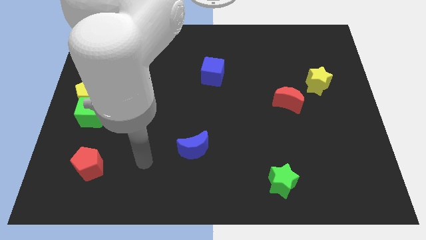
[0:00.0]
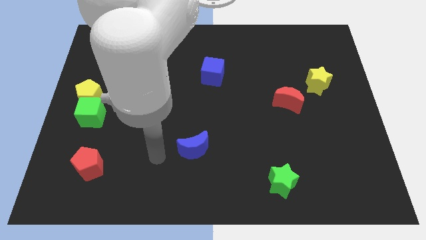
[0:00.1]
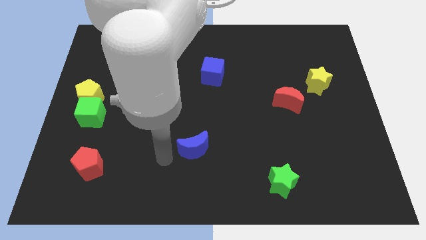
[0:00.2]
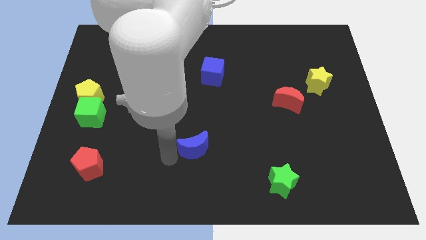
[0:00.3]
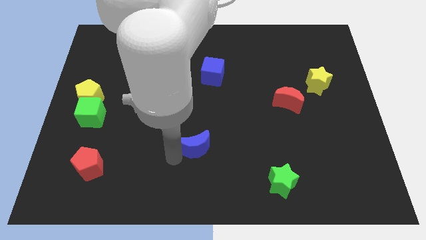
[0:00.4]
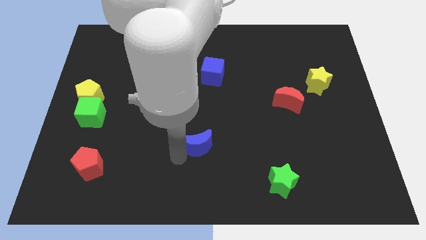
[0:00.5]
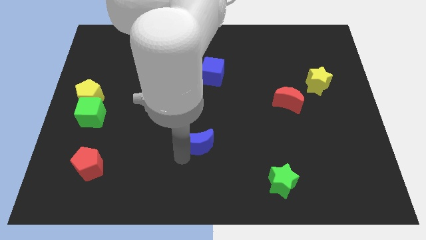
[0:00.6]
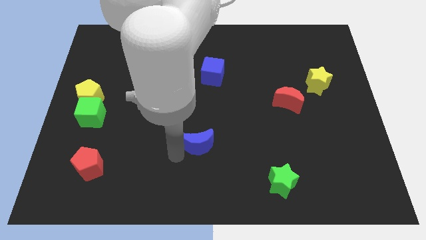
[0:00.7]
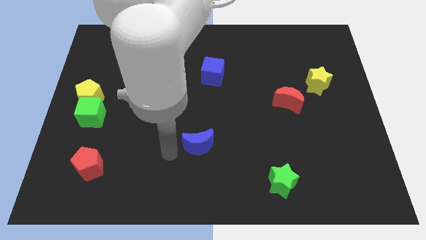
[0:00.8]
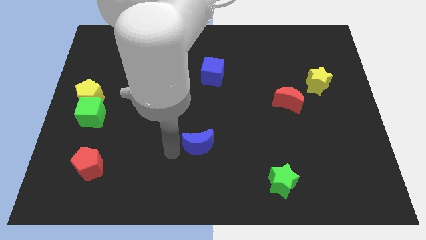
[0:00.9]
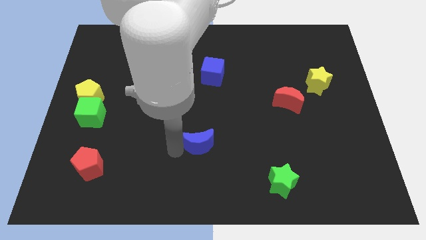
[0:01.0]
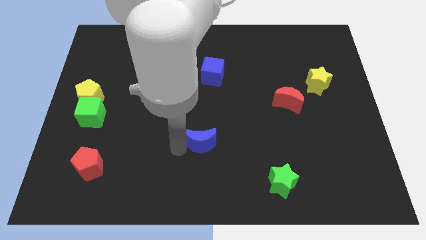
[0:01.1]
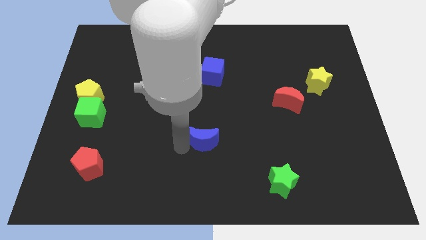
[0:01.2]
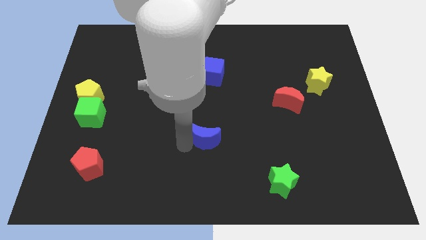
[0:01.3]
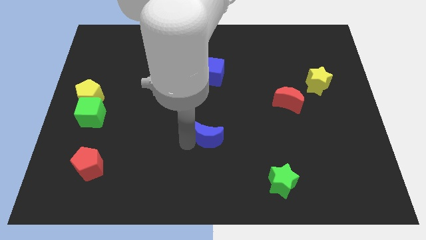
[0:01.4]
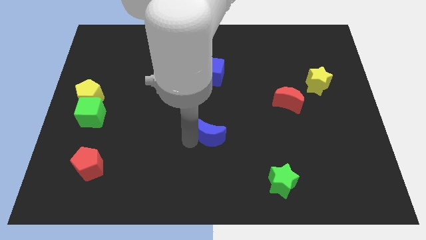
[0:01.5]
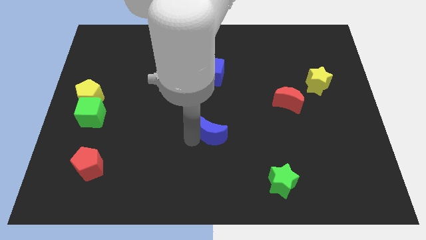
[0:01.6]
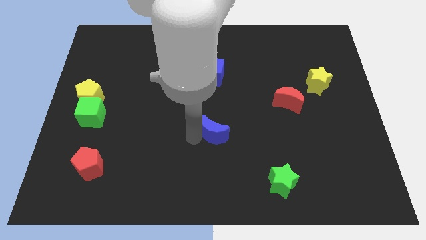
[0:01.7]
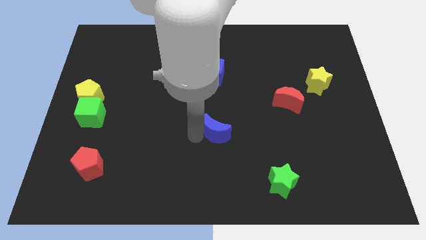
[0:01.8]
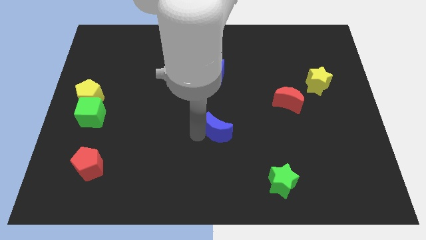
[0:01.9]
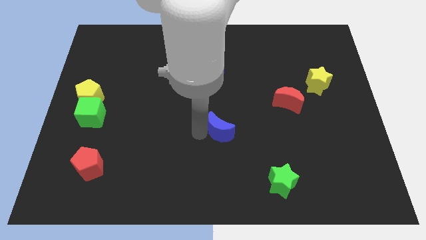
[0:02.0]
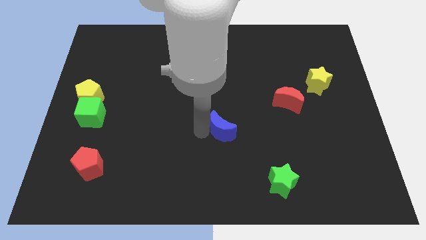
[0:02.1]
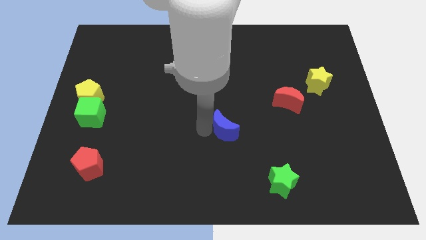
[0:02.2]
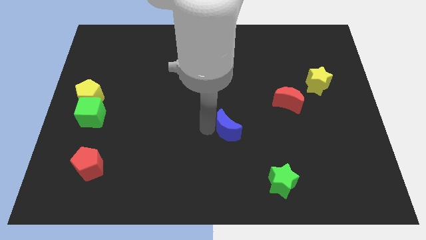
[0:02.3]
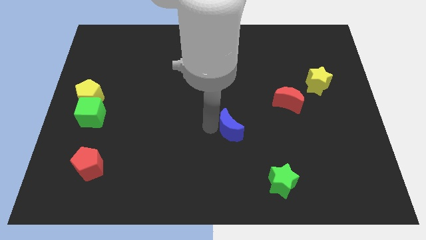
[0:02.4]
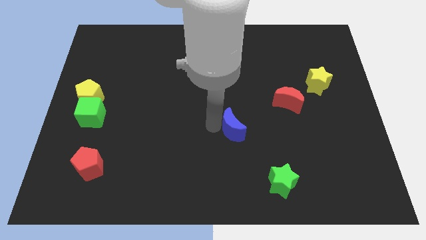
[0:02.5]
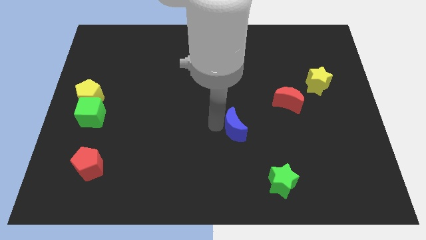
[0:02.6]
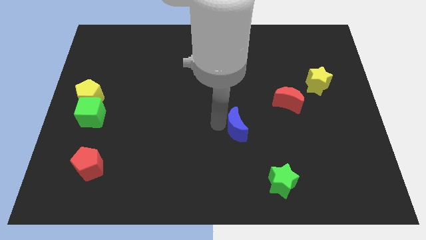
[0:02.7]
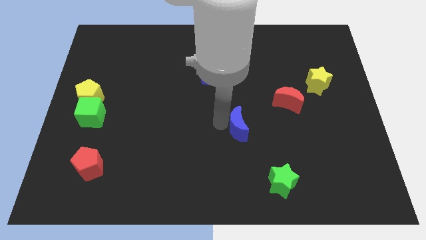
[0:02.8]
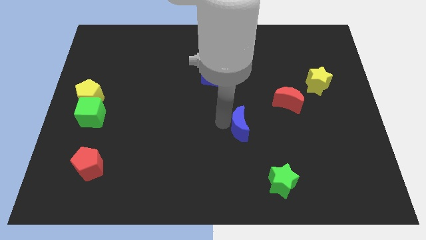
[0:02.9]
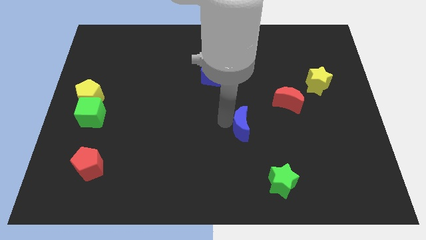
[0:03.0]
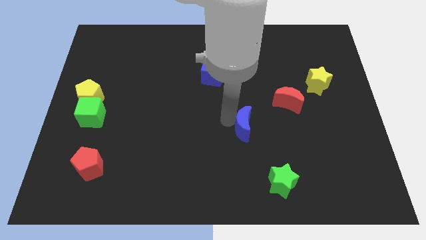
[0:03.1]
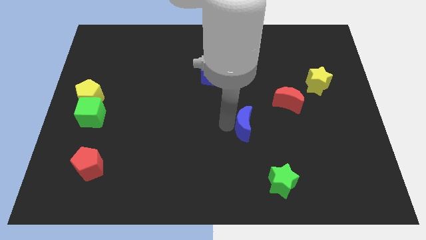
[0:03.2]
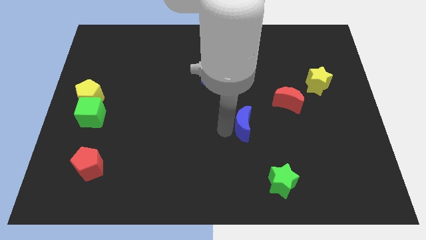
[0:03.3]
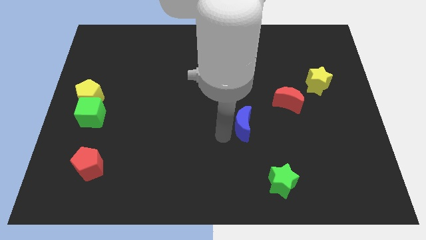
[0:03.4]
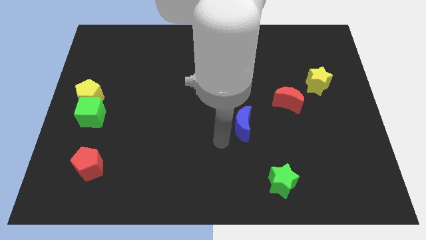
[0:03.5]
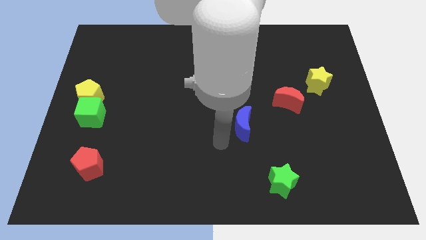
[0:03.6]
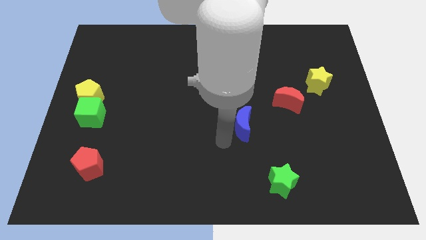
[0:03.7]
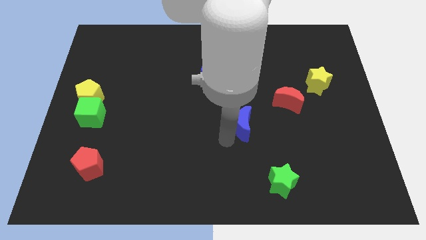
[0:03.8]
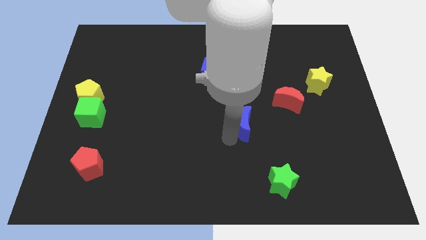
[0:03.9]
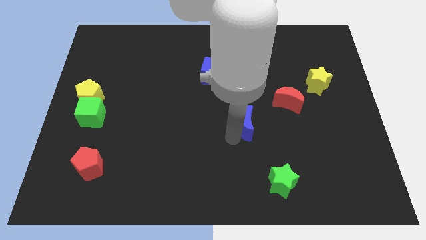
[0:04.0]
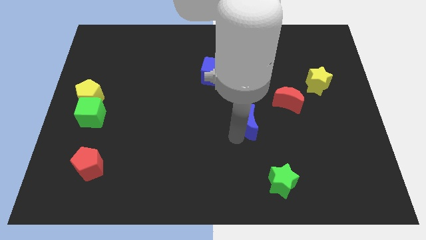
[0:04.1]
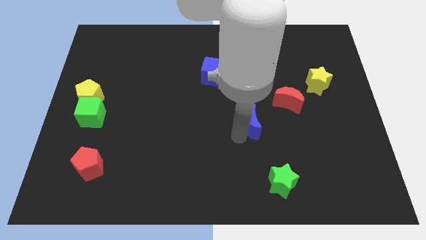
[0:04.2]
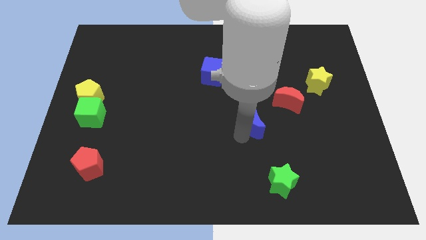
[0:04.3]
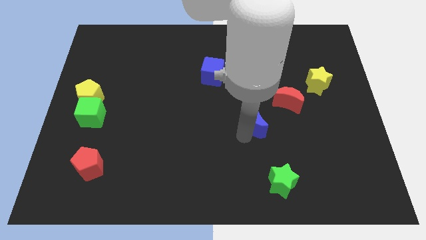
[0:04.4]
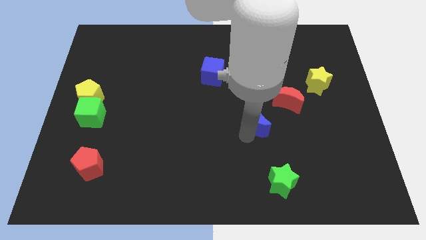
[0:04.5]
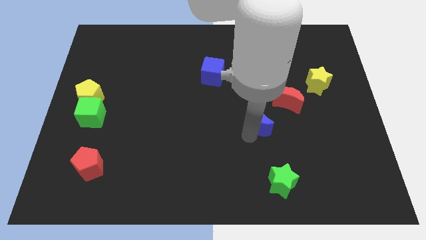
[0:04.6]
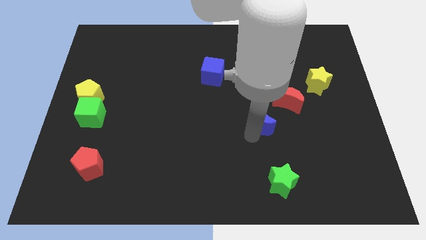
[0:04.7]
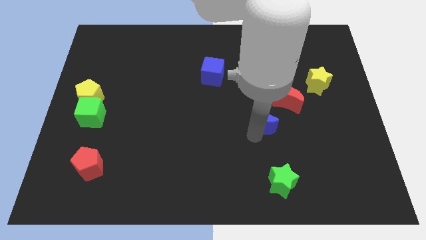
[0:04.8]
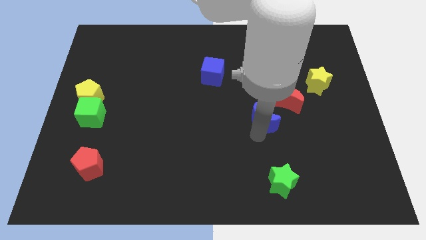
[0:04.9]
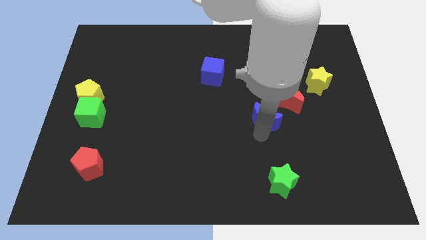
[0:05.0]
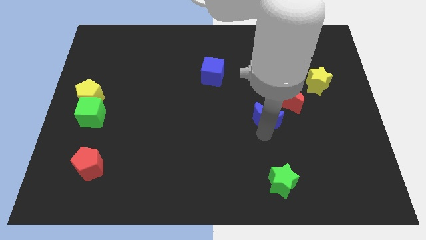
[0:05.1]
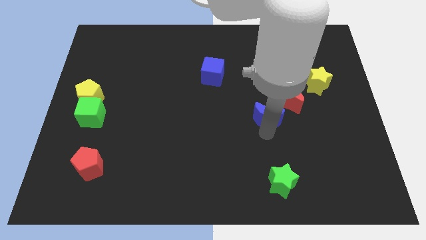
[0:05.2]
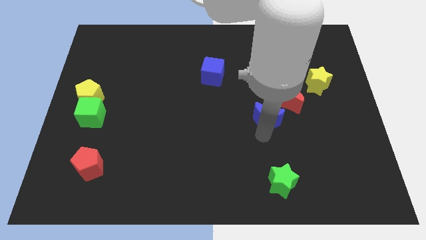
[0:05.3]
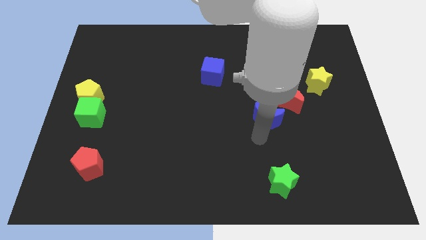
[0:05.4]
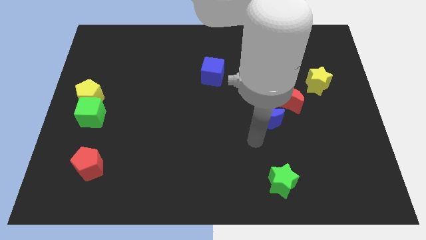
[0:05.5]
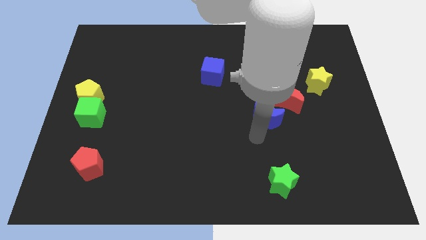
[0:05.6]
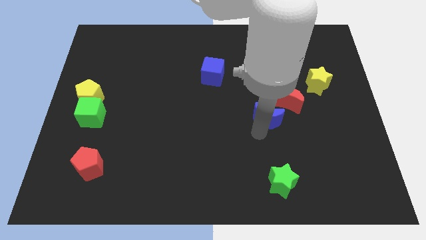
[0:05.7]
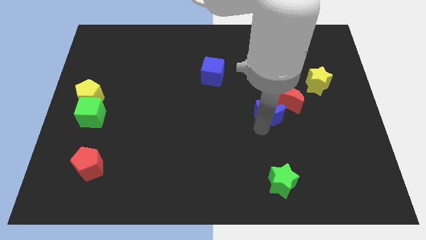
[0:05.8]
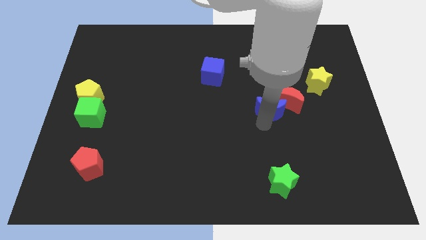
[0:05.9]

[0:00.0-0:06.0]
push the blue moon towards the red moon
